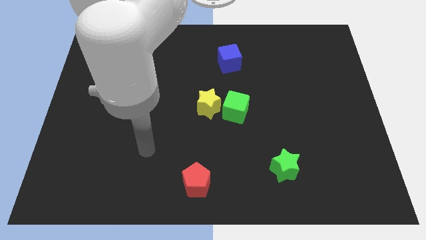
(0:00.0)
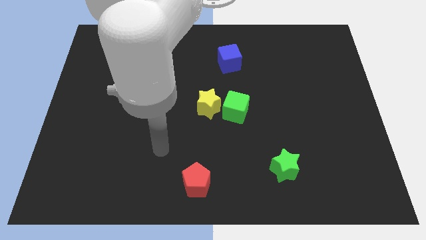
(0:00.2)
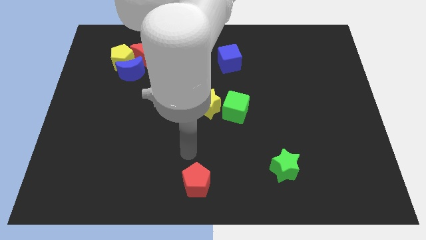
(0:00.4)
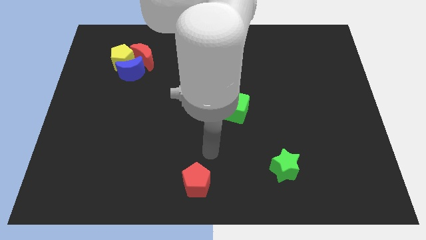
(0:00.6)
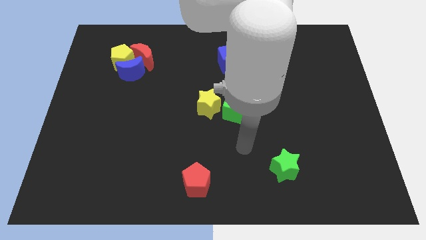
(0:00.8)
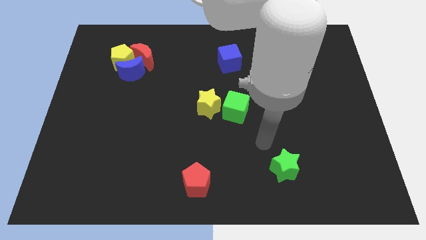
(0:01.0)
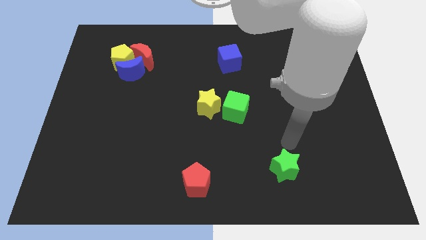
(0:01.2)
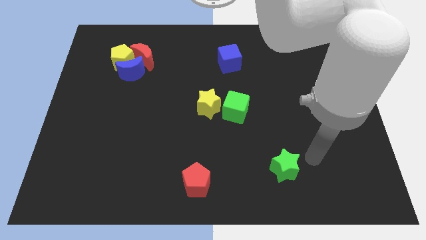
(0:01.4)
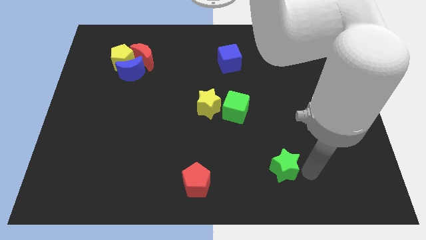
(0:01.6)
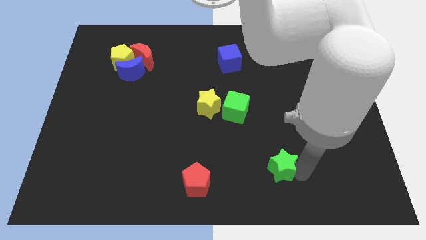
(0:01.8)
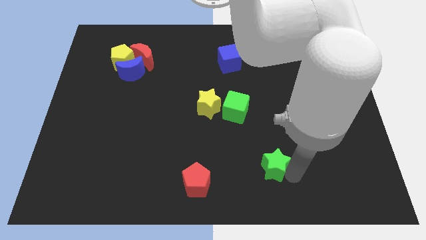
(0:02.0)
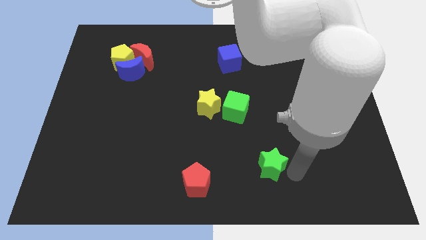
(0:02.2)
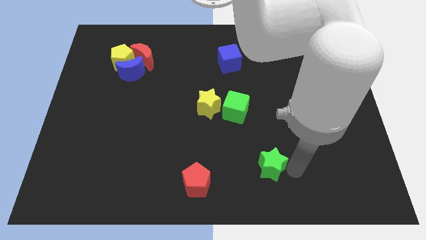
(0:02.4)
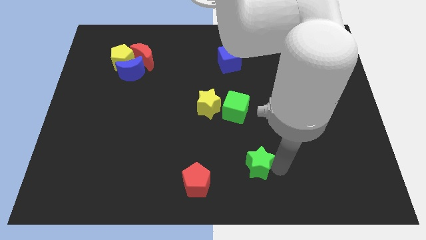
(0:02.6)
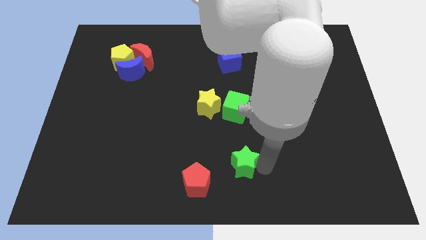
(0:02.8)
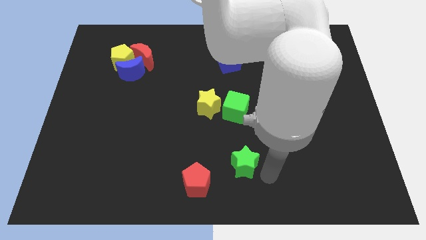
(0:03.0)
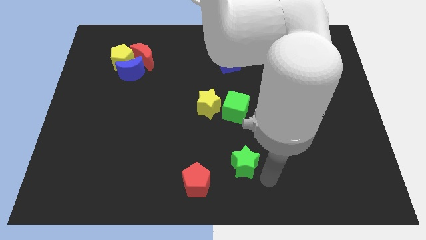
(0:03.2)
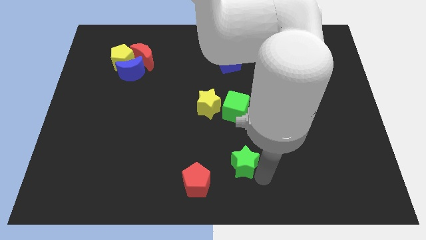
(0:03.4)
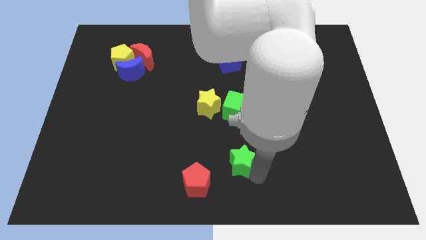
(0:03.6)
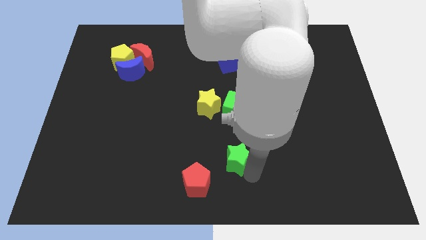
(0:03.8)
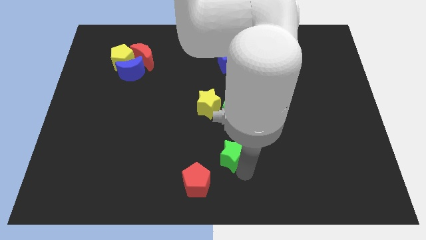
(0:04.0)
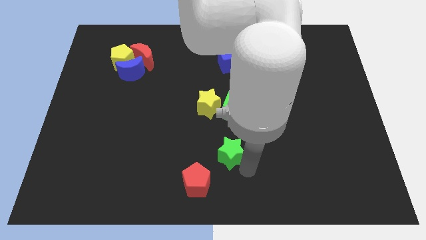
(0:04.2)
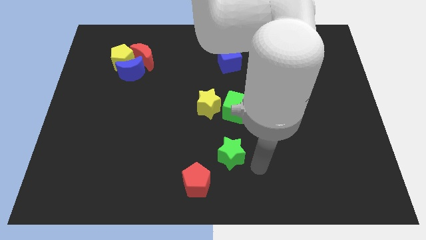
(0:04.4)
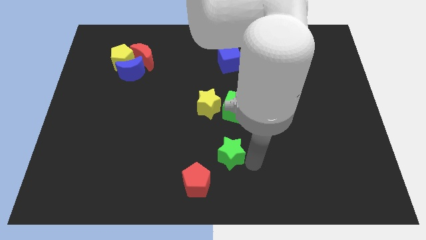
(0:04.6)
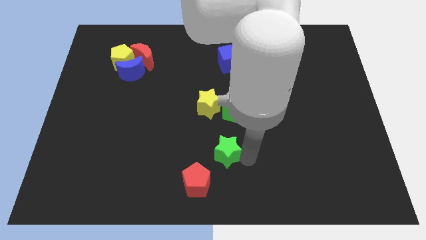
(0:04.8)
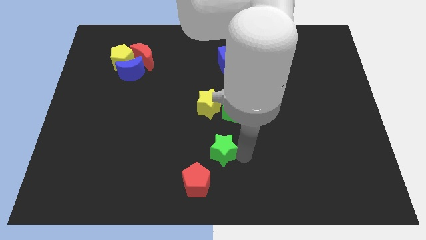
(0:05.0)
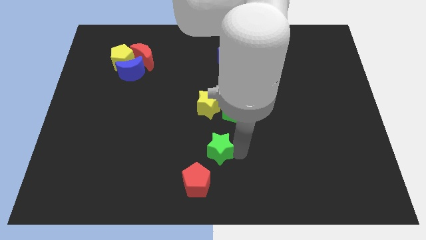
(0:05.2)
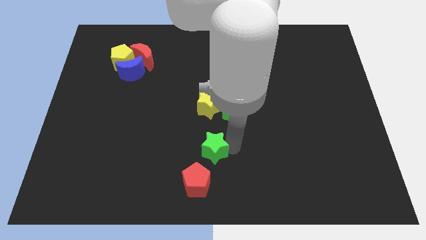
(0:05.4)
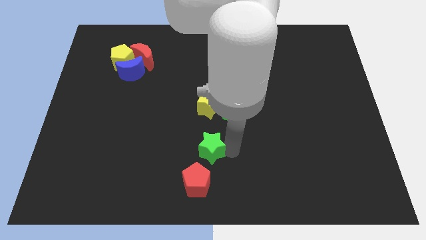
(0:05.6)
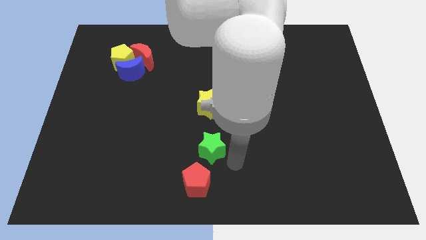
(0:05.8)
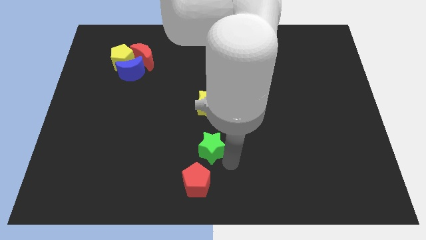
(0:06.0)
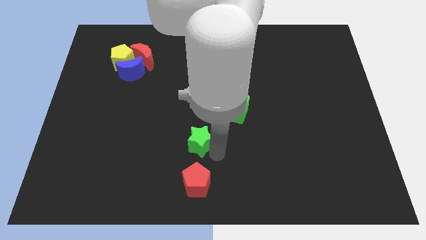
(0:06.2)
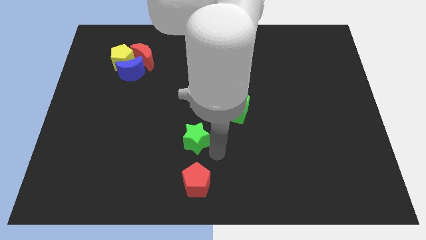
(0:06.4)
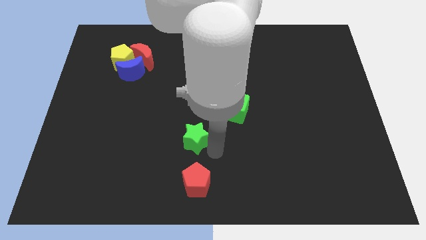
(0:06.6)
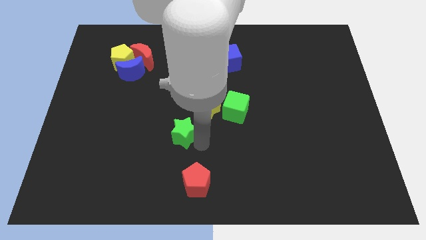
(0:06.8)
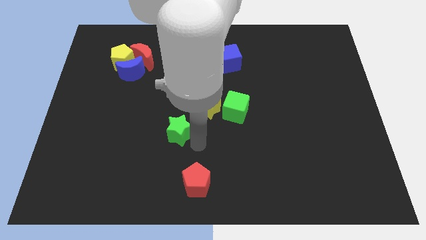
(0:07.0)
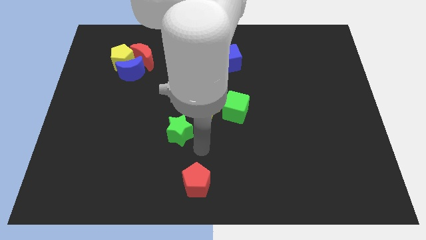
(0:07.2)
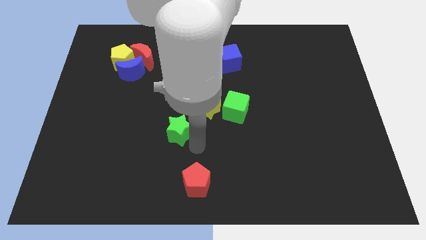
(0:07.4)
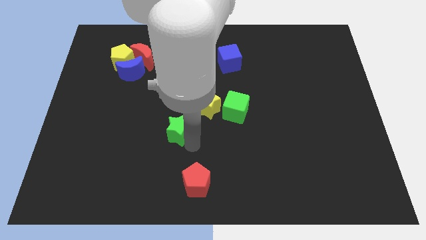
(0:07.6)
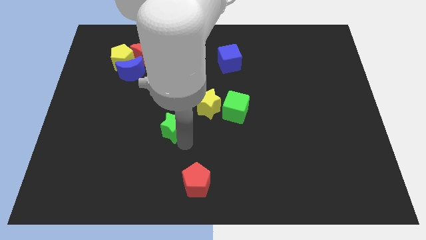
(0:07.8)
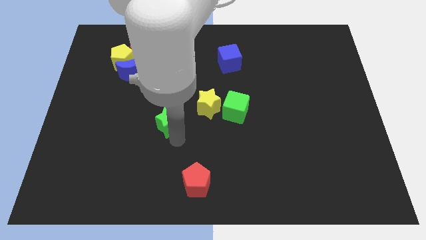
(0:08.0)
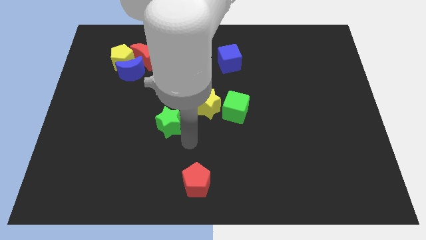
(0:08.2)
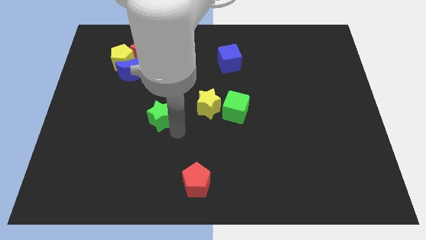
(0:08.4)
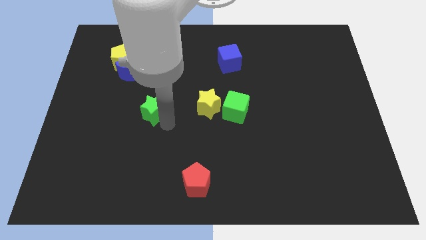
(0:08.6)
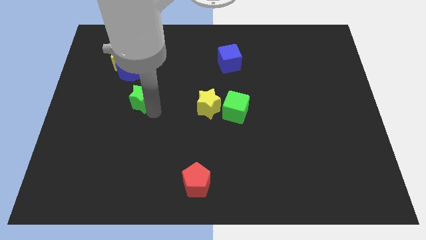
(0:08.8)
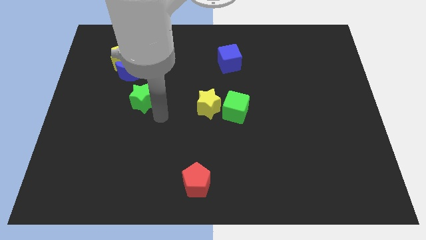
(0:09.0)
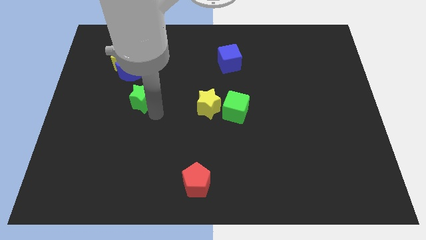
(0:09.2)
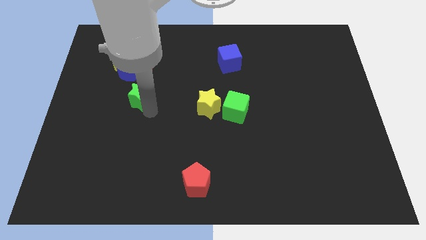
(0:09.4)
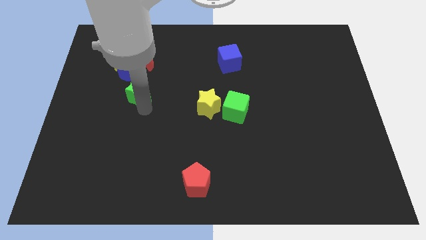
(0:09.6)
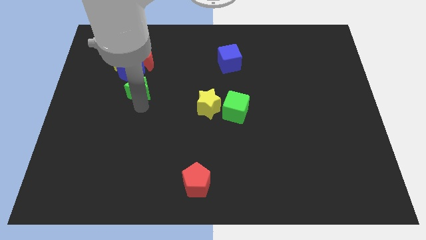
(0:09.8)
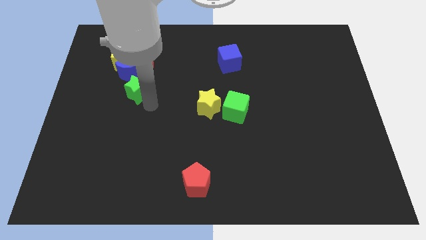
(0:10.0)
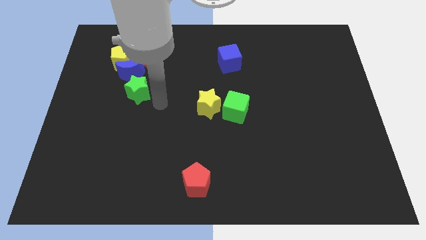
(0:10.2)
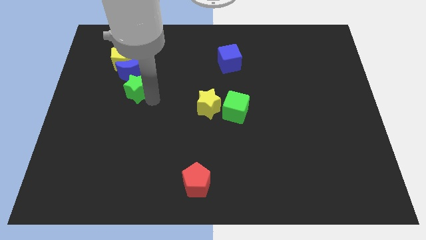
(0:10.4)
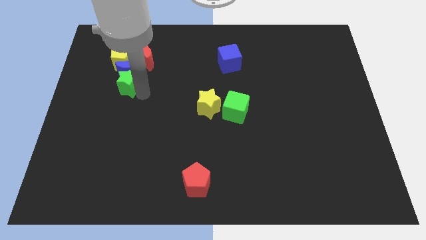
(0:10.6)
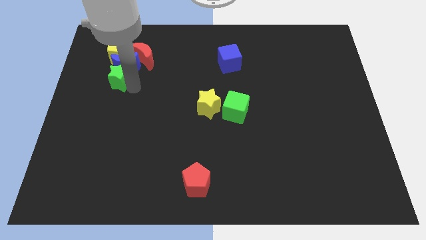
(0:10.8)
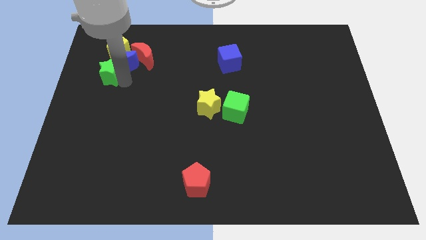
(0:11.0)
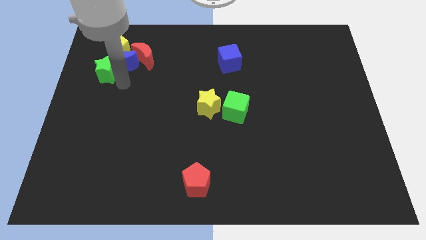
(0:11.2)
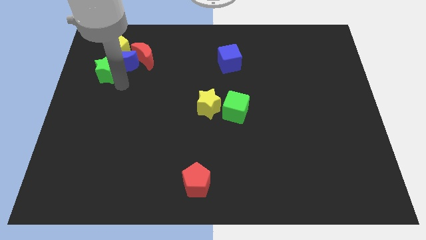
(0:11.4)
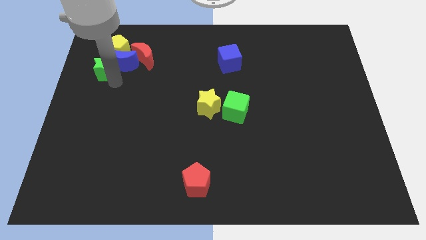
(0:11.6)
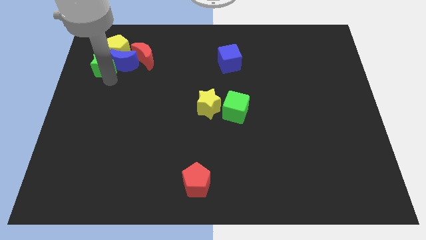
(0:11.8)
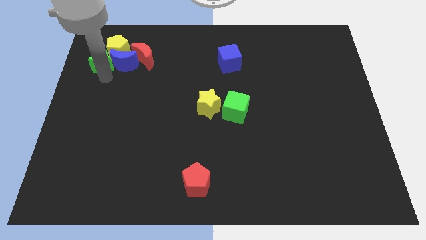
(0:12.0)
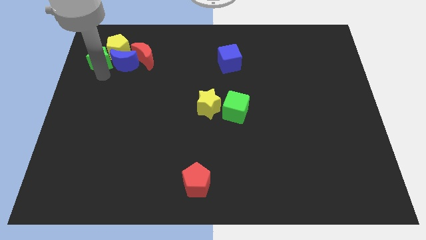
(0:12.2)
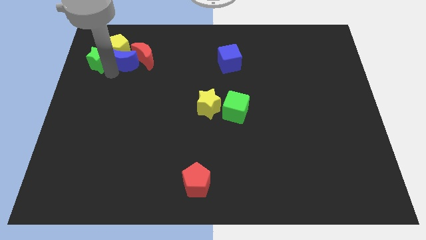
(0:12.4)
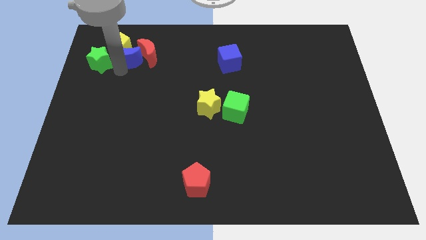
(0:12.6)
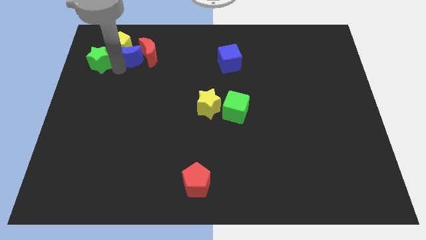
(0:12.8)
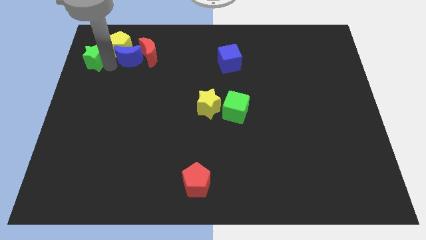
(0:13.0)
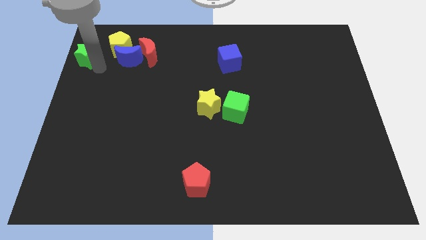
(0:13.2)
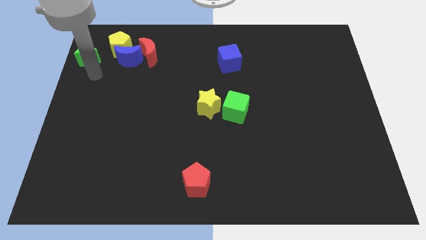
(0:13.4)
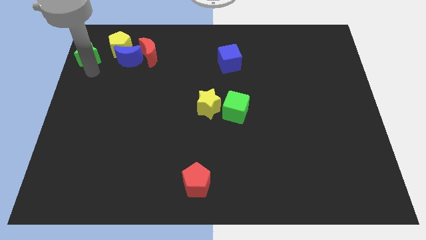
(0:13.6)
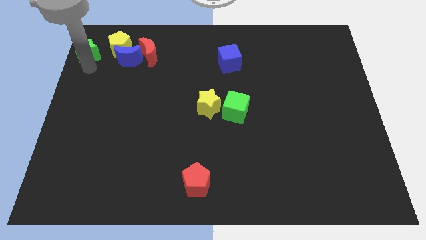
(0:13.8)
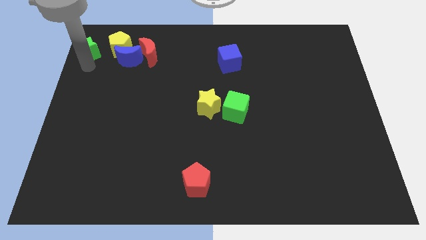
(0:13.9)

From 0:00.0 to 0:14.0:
move the green star to the top left
